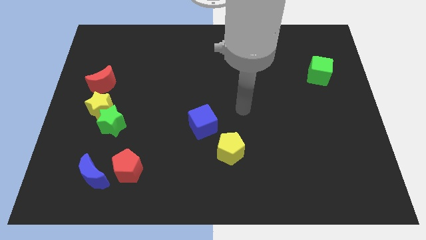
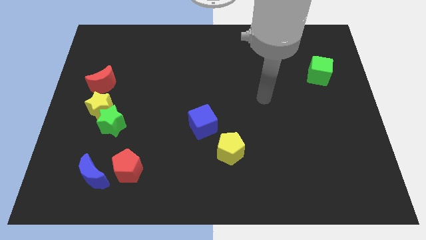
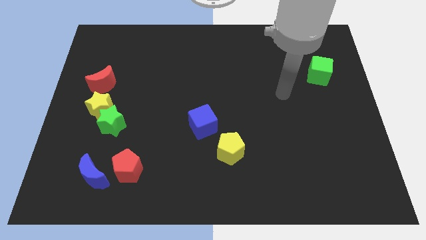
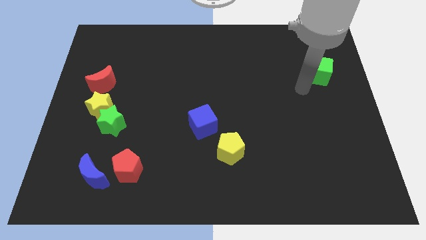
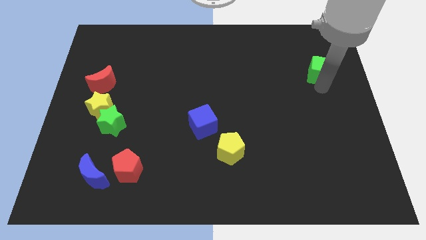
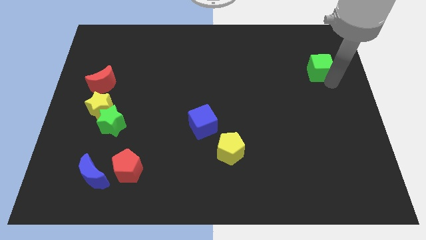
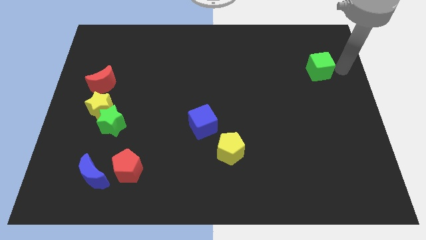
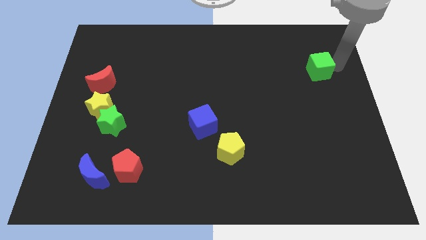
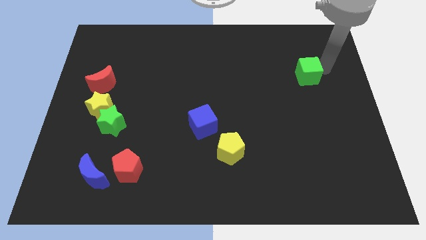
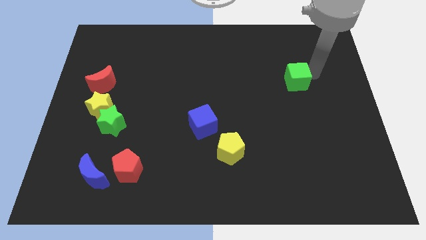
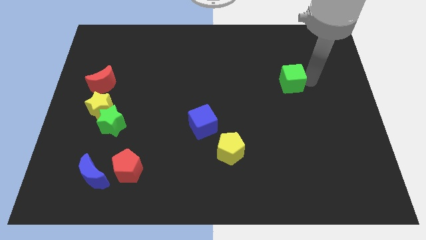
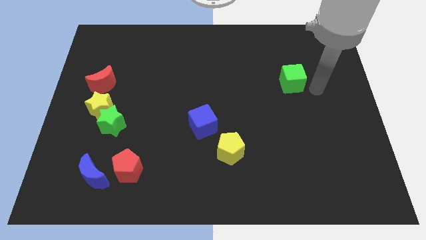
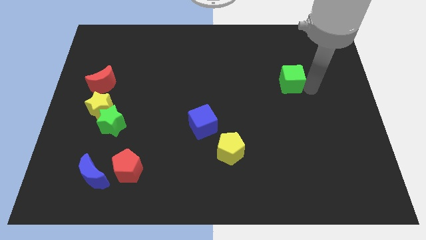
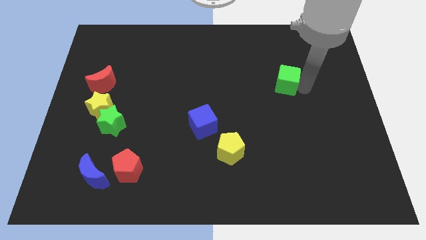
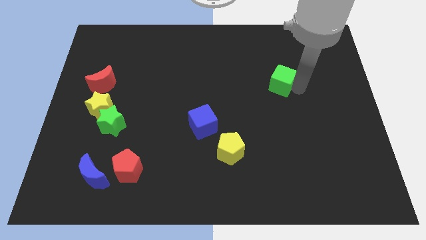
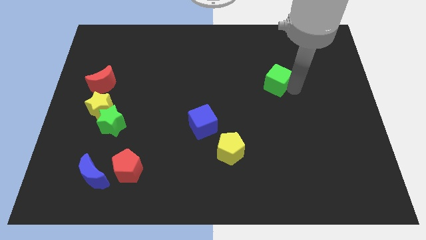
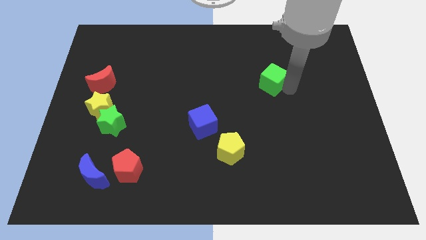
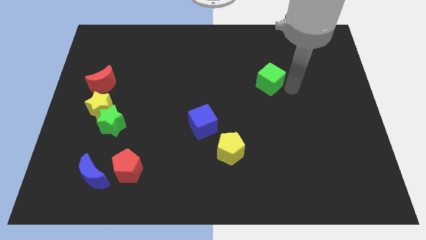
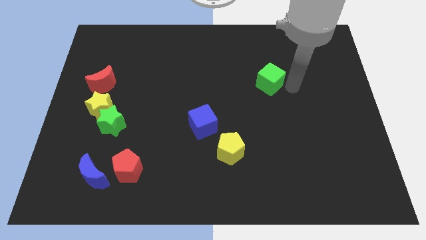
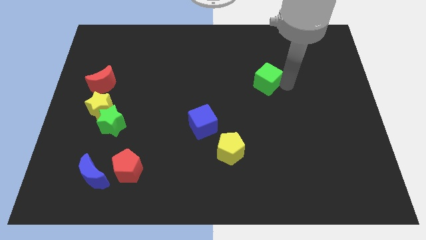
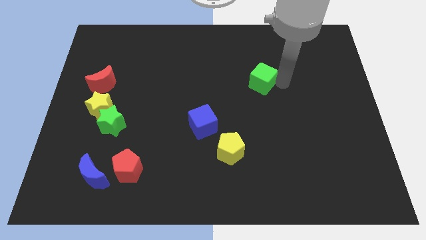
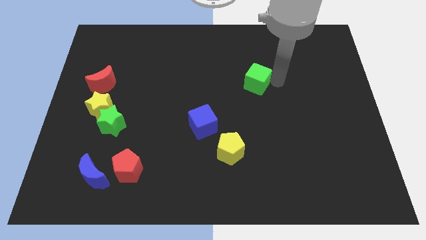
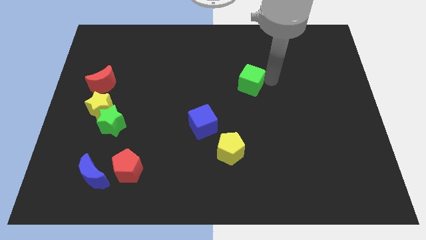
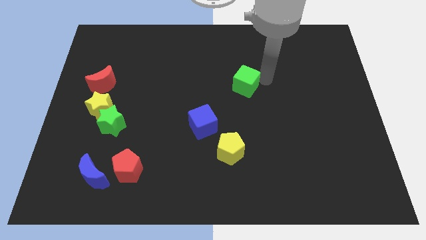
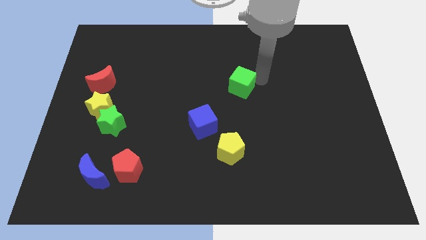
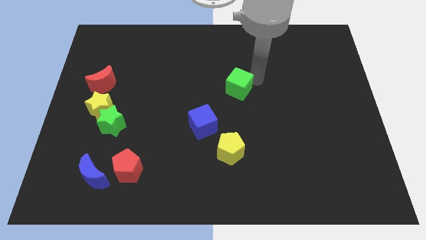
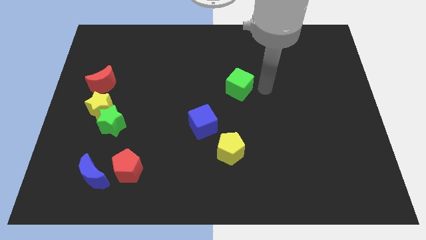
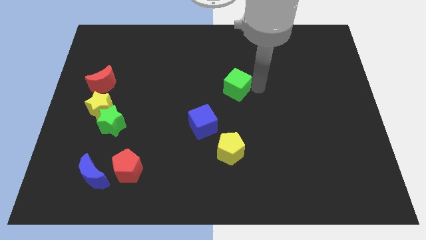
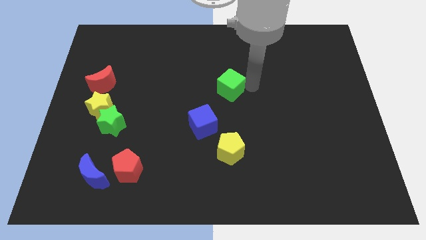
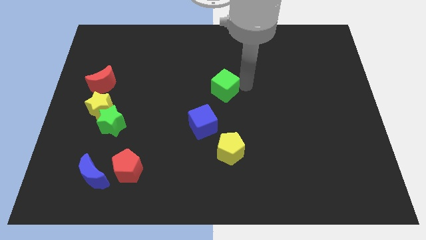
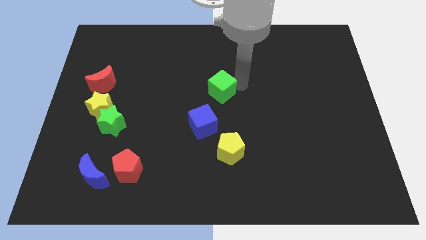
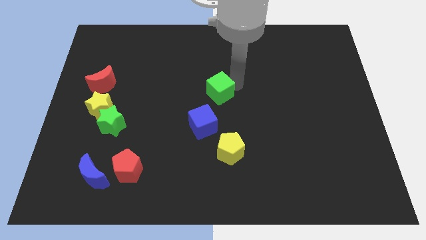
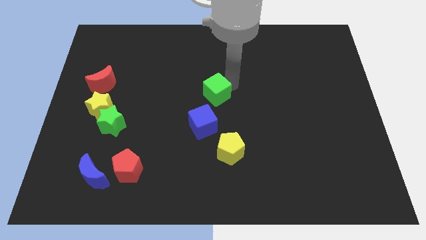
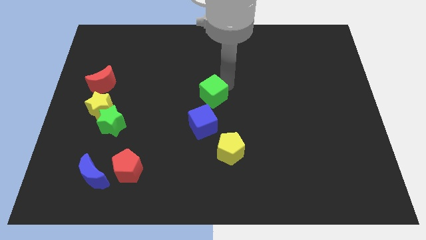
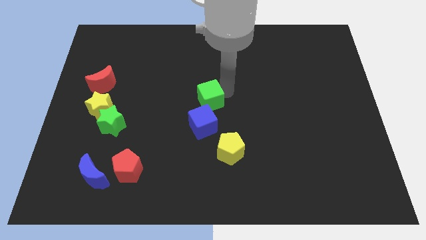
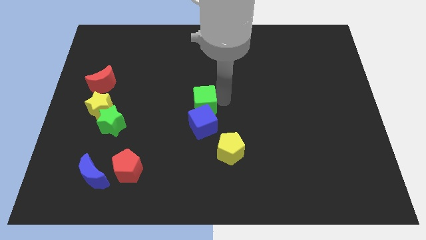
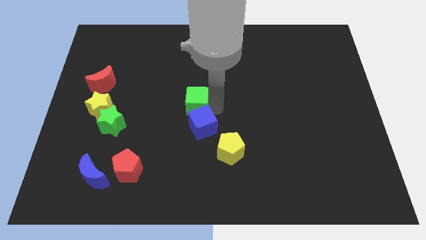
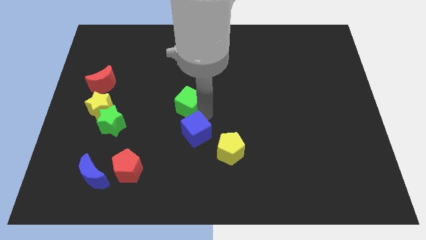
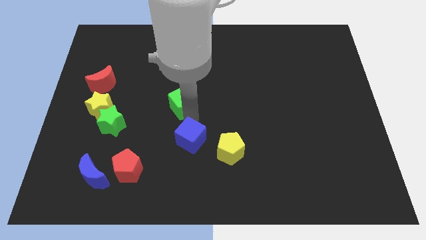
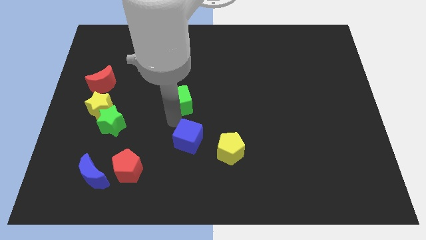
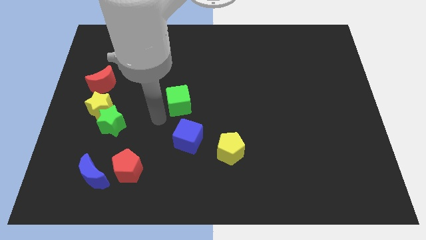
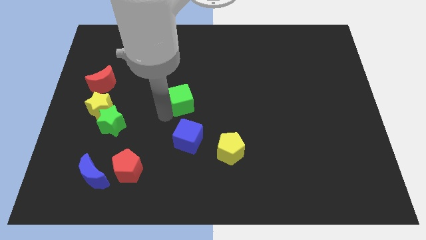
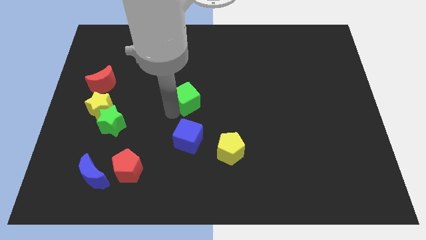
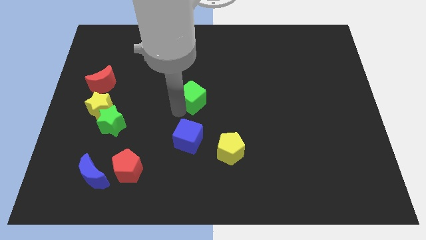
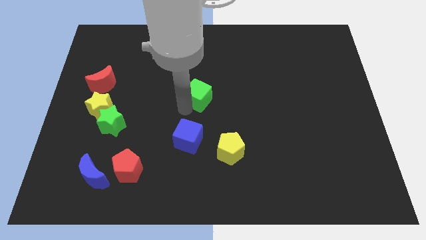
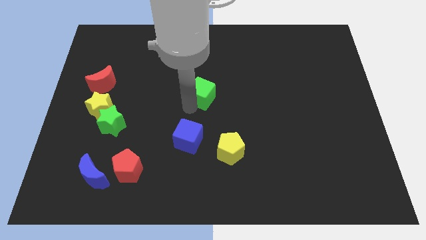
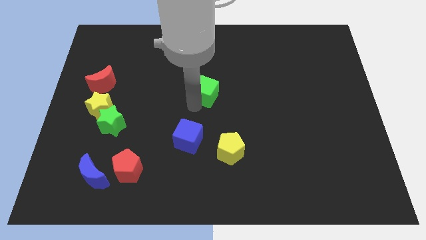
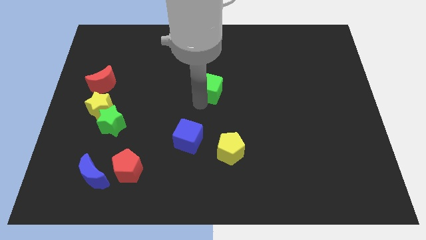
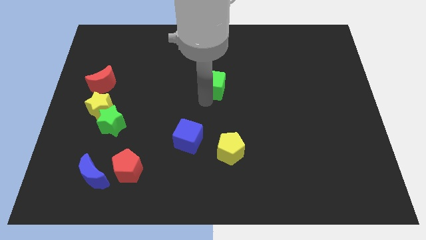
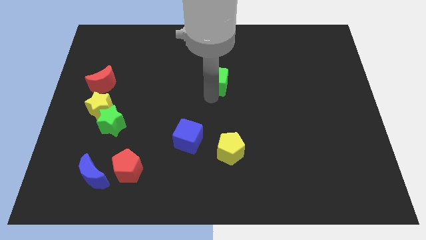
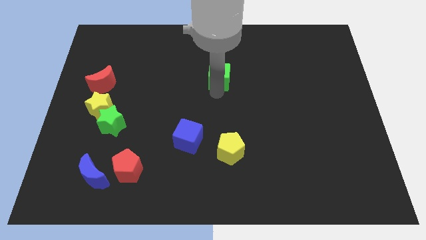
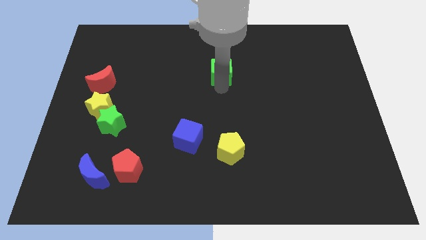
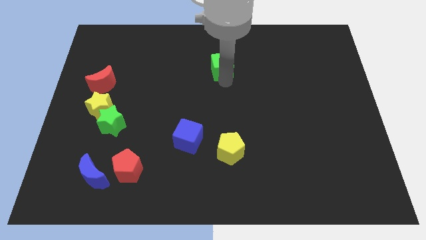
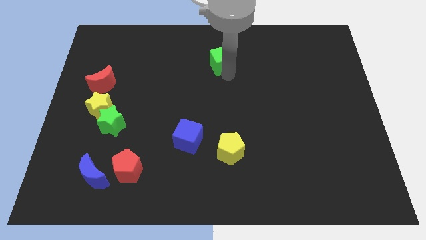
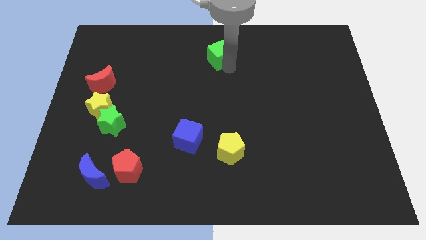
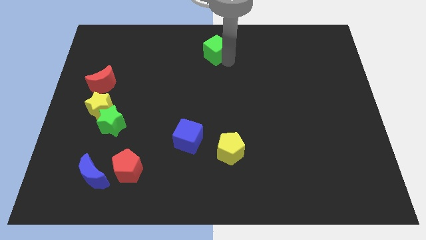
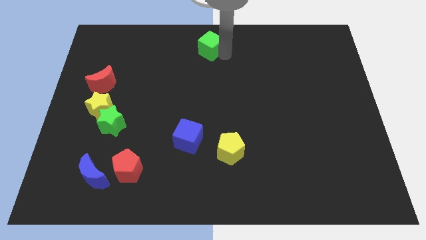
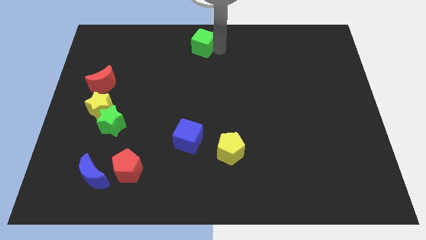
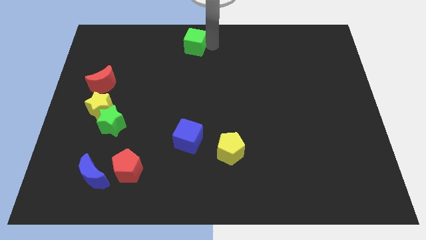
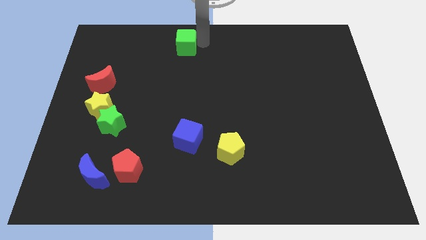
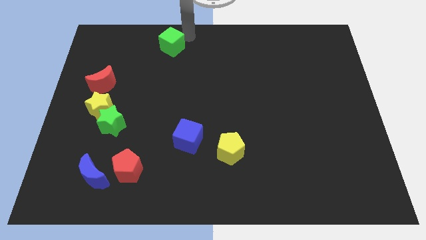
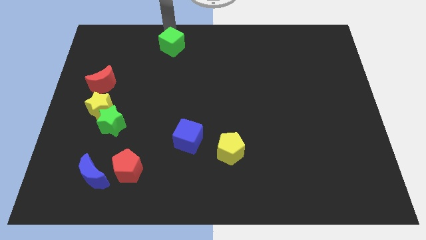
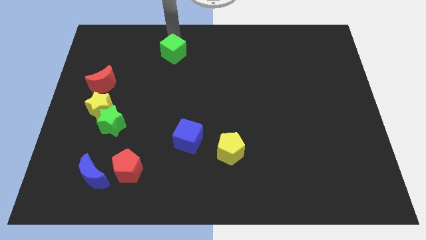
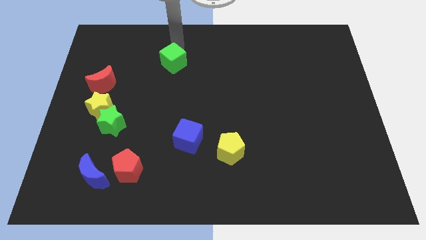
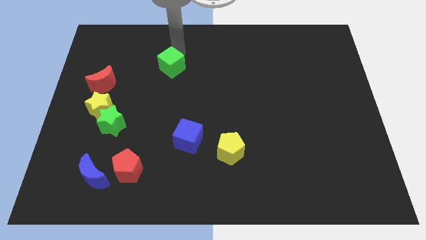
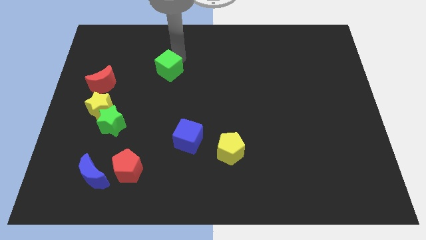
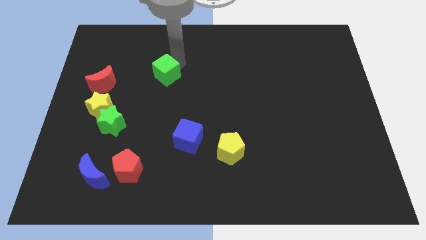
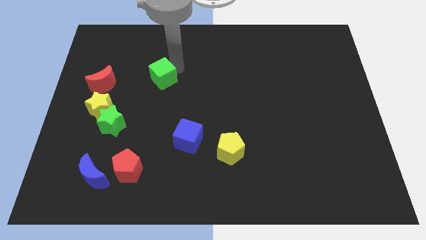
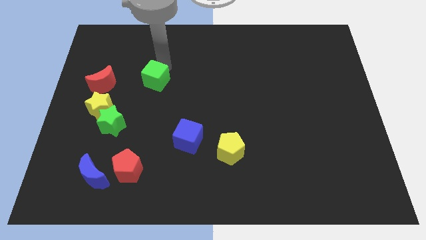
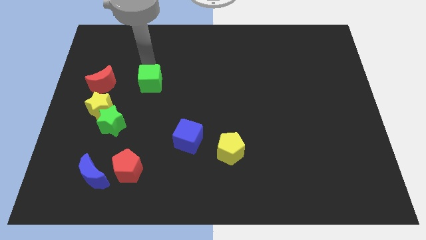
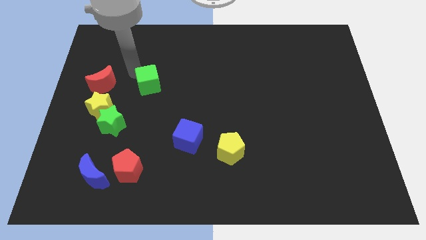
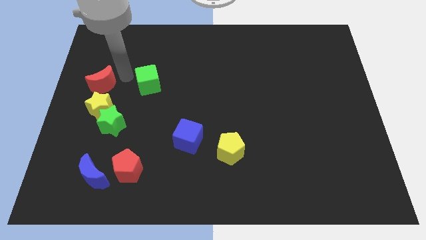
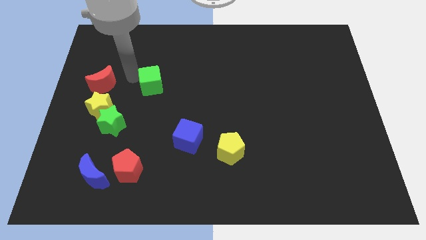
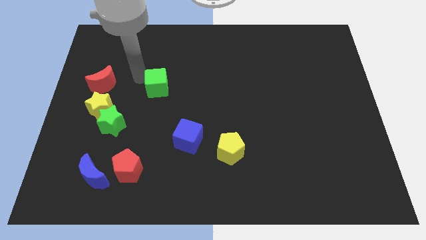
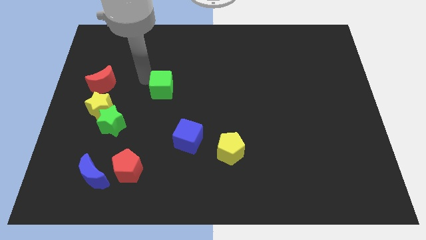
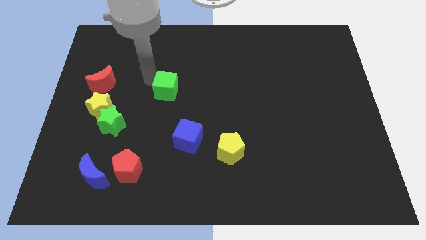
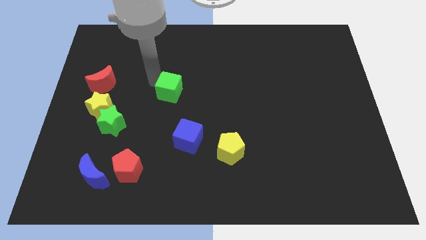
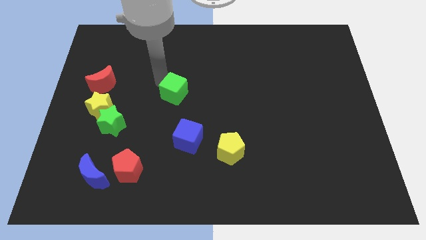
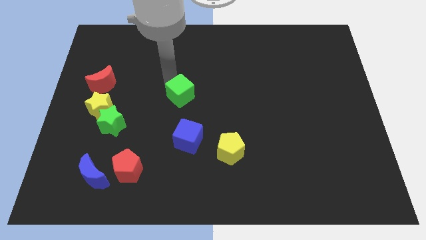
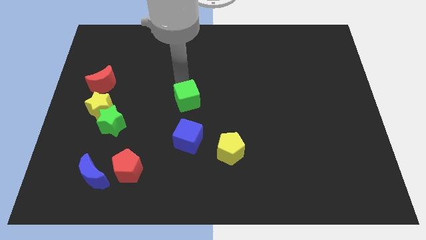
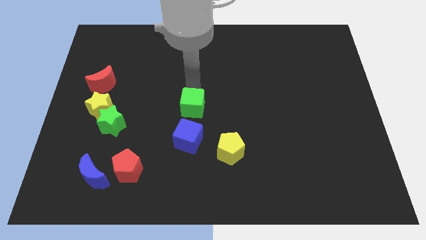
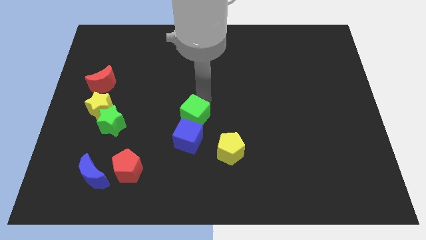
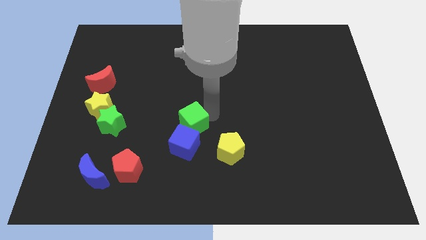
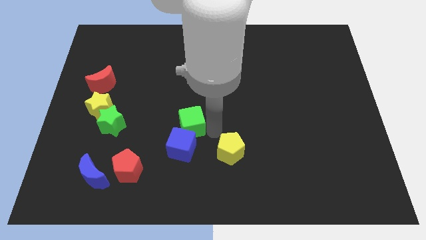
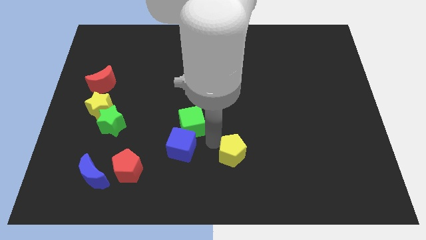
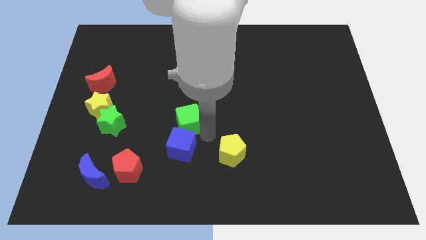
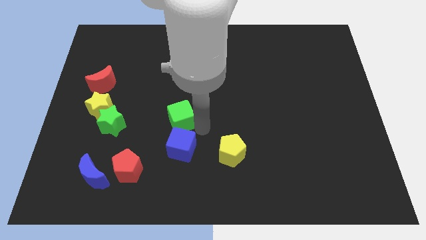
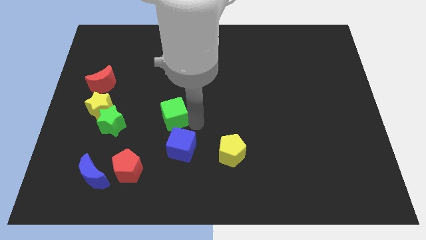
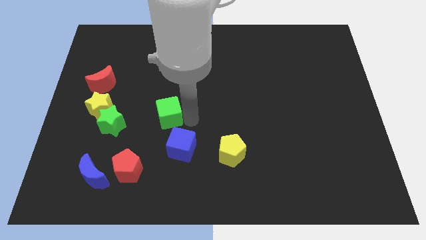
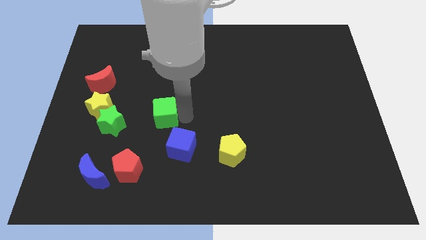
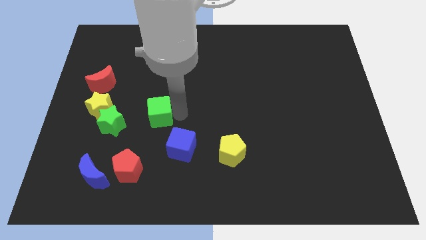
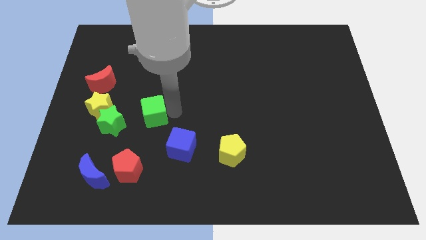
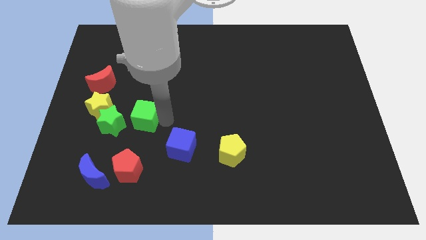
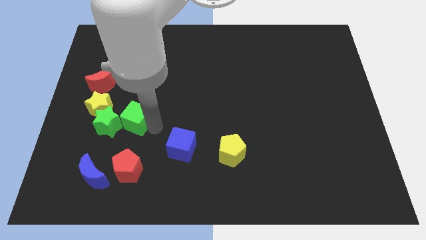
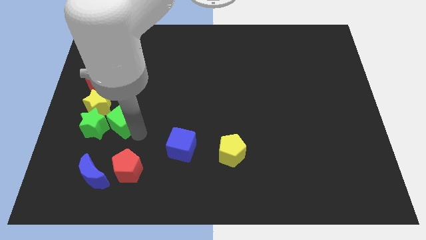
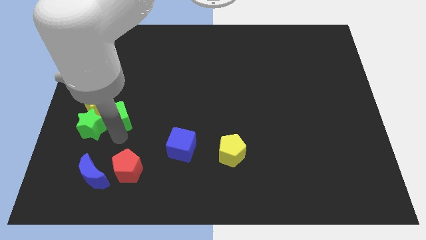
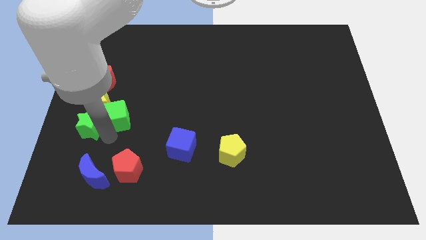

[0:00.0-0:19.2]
move the green cube diagonally down and to the right of the red moon
